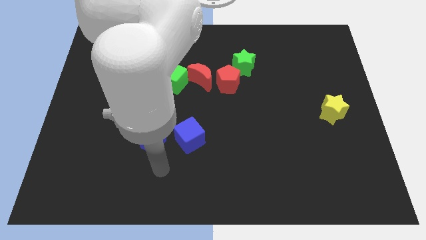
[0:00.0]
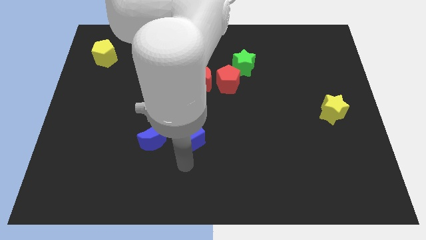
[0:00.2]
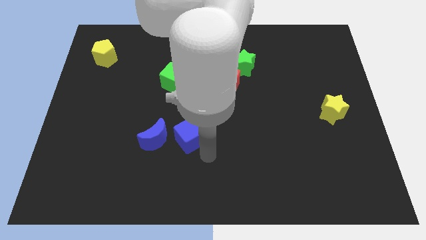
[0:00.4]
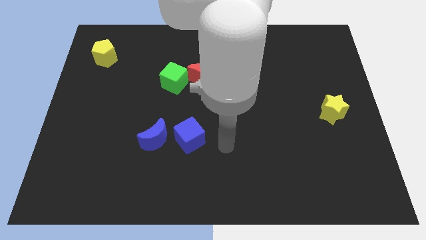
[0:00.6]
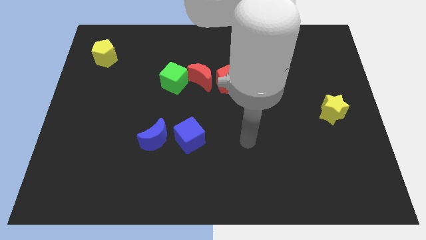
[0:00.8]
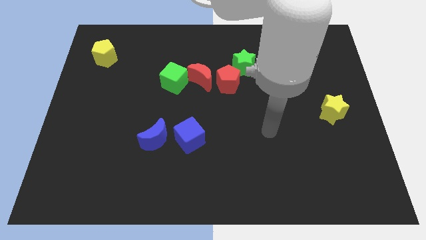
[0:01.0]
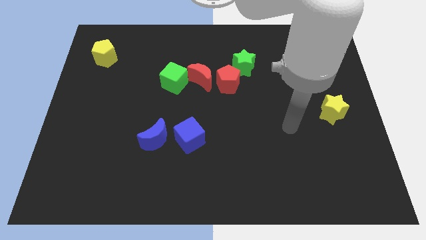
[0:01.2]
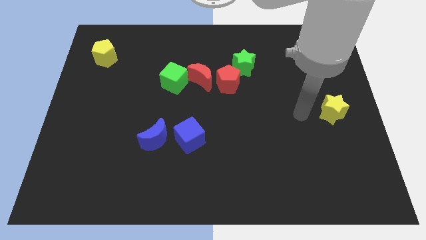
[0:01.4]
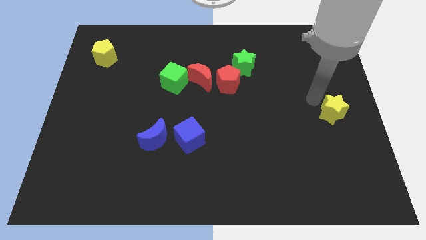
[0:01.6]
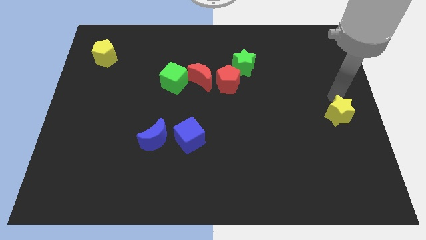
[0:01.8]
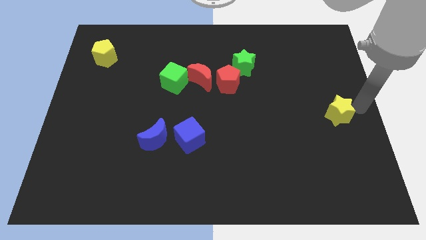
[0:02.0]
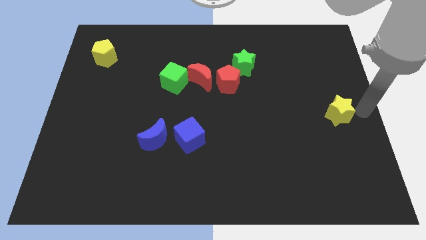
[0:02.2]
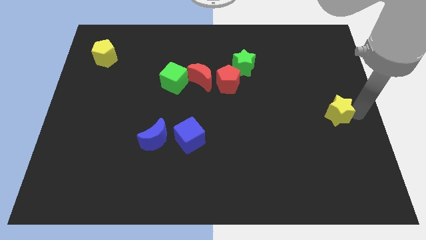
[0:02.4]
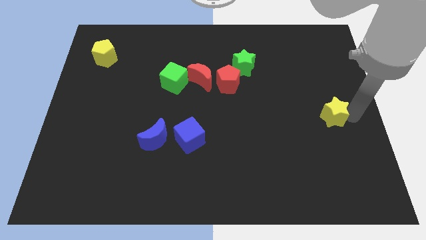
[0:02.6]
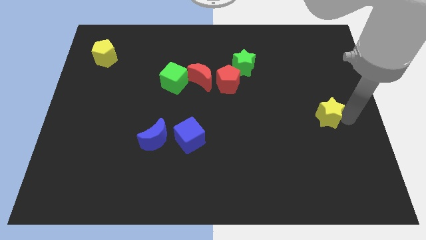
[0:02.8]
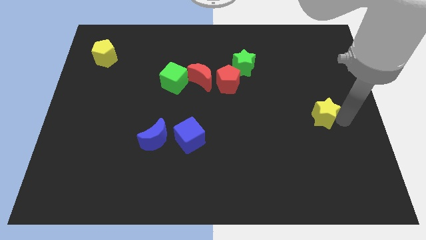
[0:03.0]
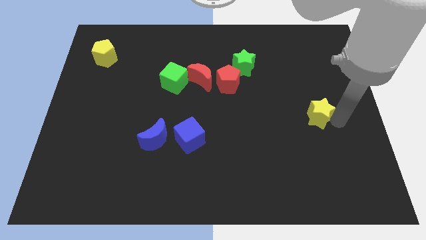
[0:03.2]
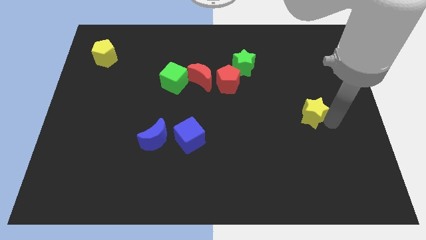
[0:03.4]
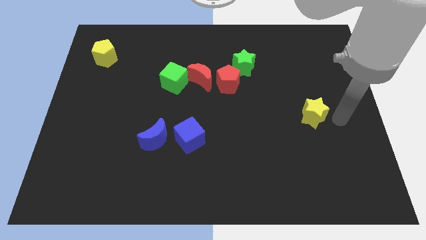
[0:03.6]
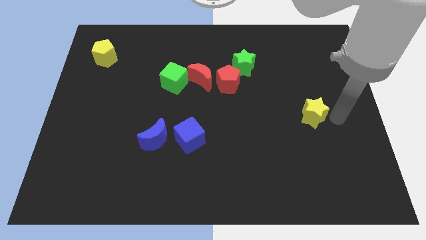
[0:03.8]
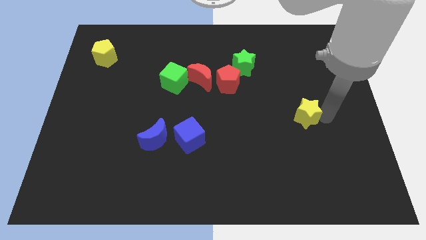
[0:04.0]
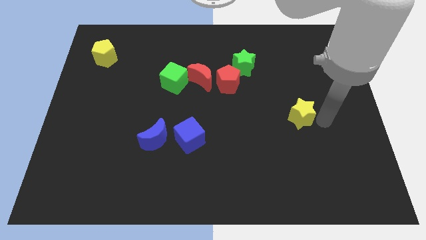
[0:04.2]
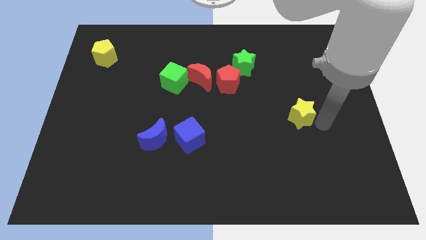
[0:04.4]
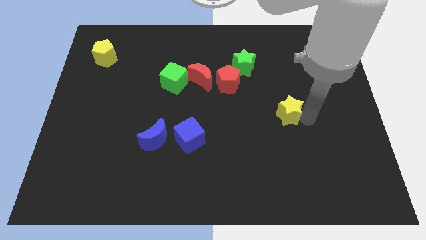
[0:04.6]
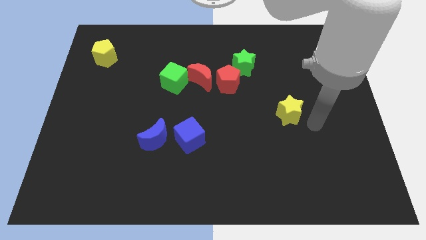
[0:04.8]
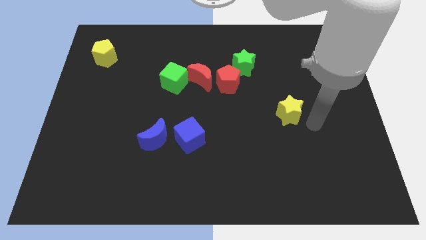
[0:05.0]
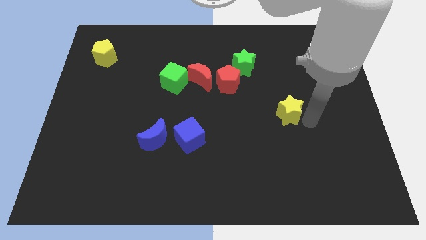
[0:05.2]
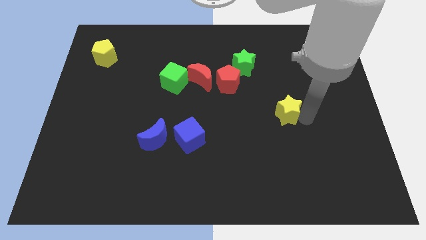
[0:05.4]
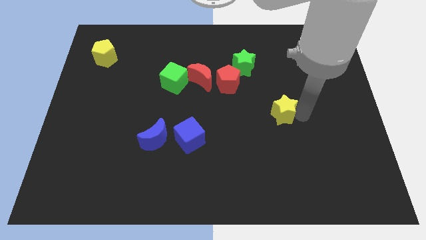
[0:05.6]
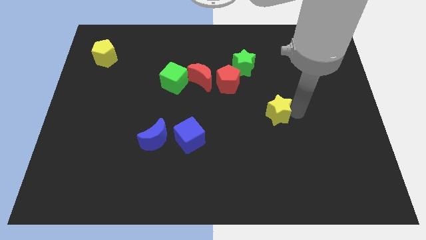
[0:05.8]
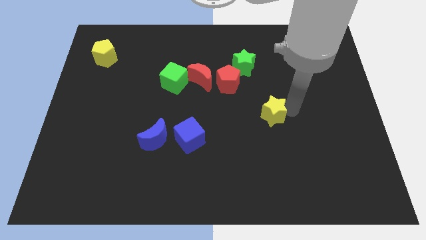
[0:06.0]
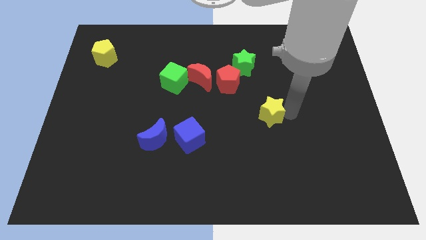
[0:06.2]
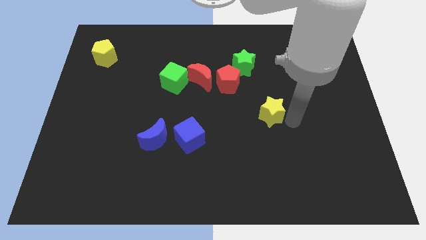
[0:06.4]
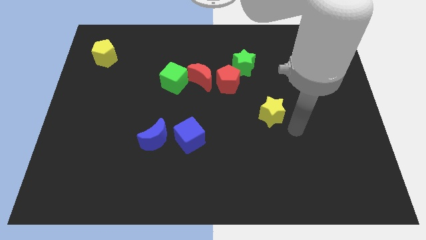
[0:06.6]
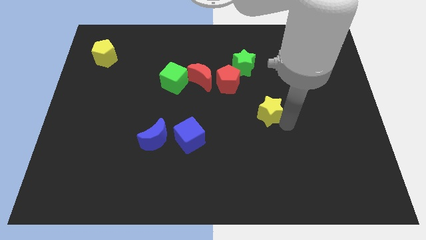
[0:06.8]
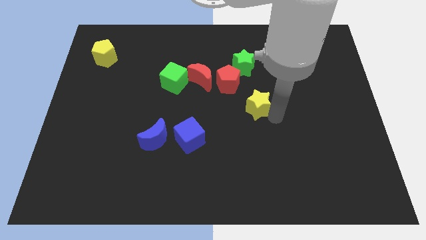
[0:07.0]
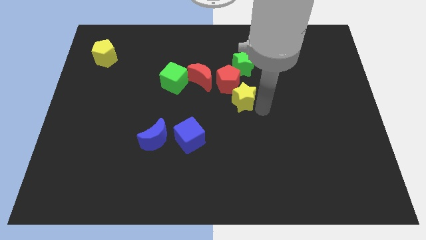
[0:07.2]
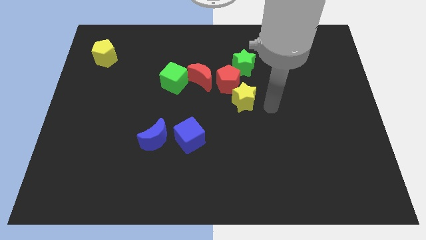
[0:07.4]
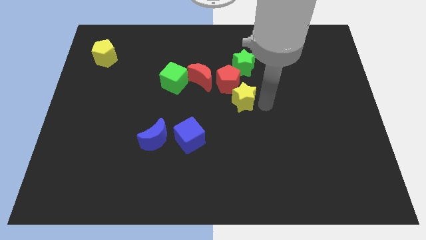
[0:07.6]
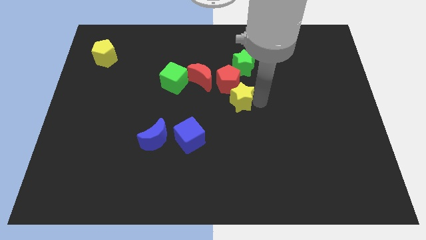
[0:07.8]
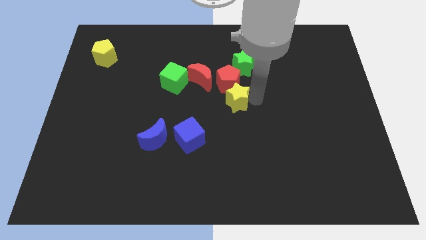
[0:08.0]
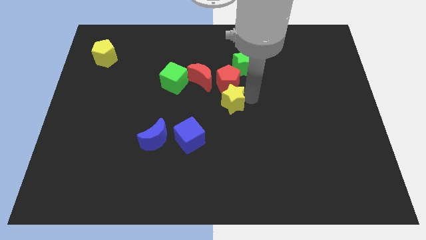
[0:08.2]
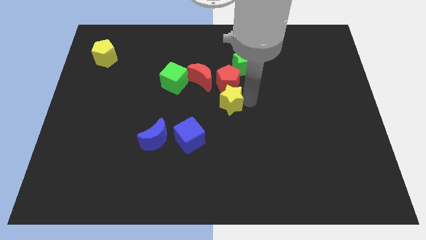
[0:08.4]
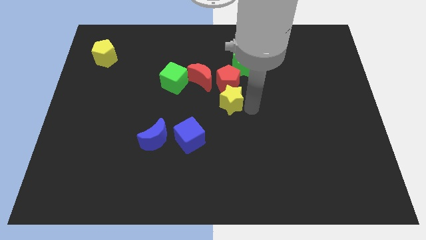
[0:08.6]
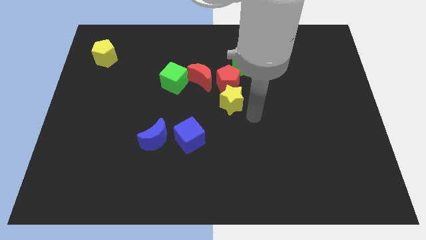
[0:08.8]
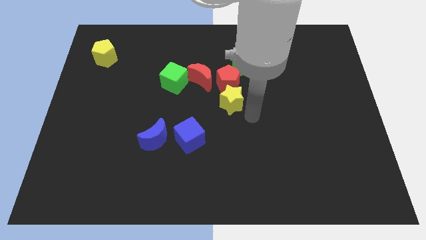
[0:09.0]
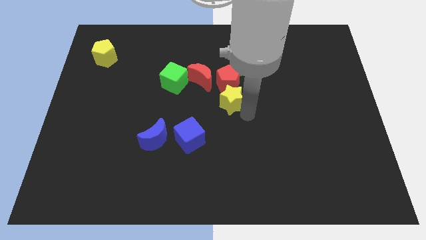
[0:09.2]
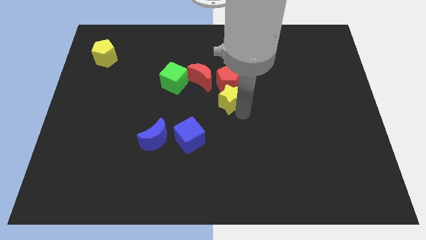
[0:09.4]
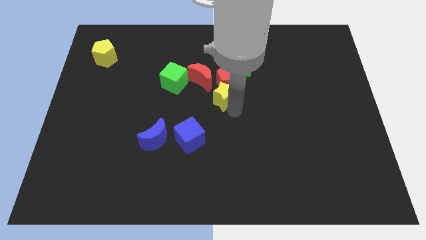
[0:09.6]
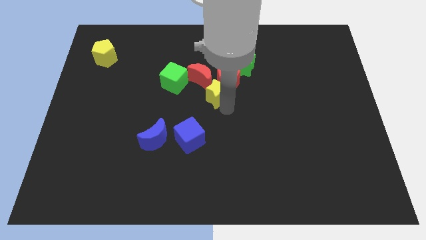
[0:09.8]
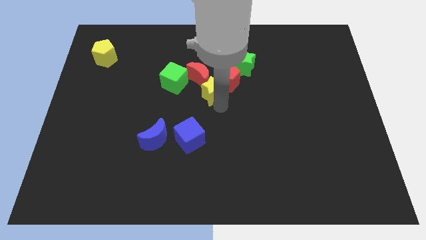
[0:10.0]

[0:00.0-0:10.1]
put the yellow star close to the red moon

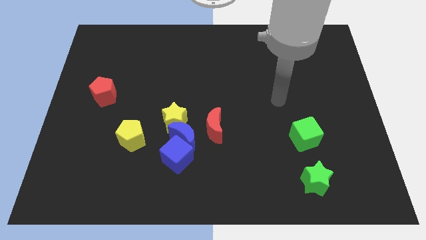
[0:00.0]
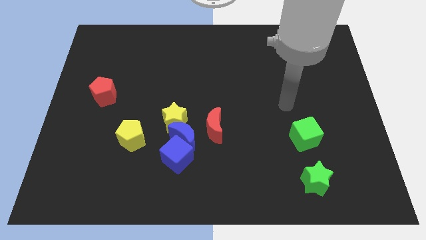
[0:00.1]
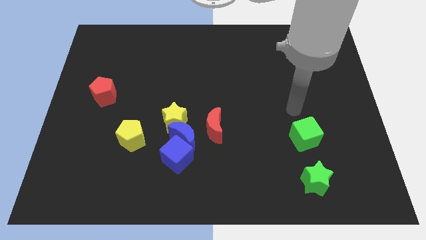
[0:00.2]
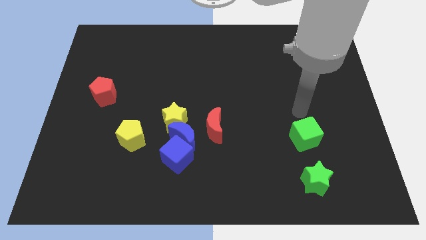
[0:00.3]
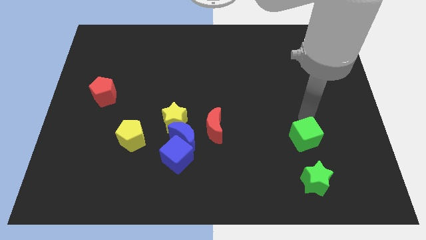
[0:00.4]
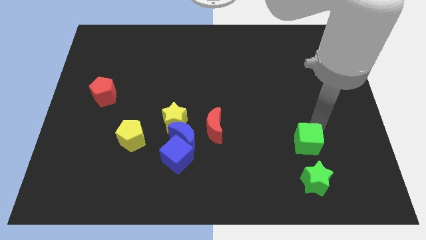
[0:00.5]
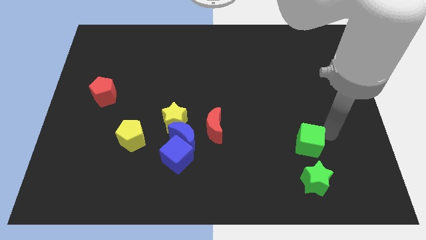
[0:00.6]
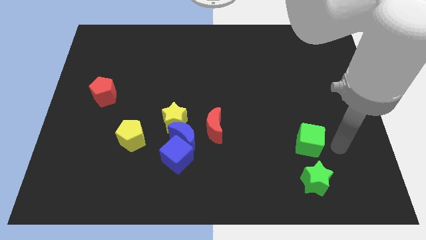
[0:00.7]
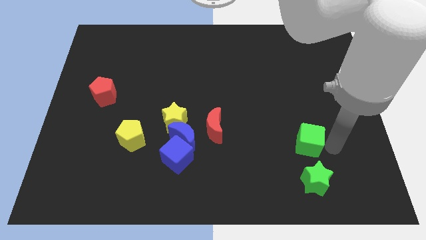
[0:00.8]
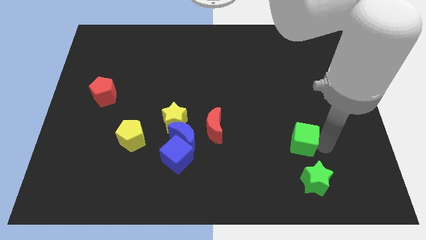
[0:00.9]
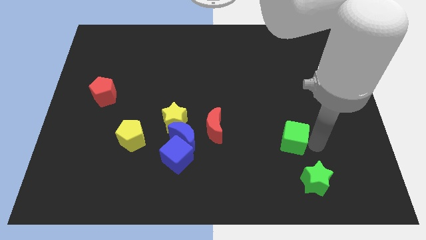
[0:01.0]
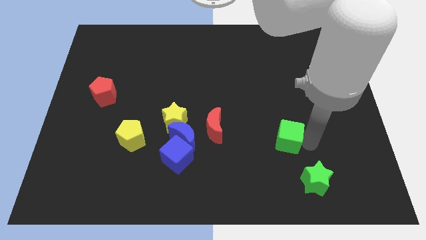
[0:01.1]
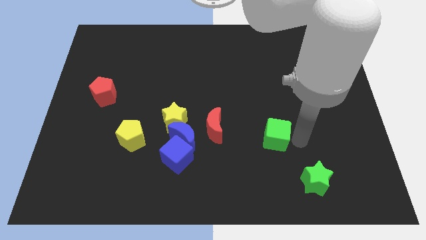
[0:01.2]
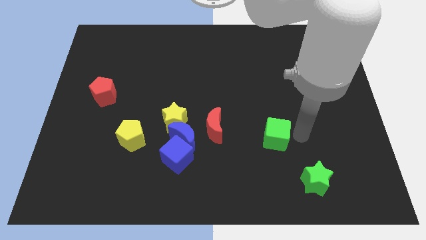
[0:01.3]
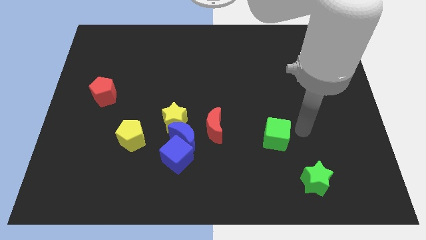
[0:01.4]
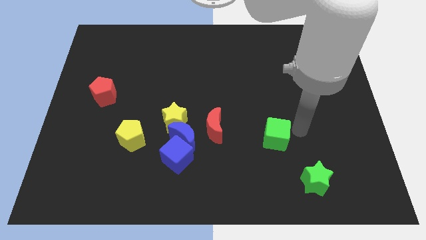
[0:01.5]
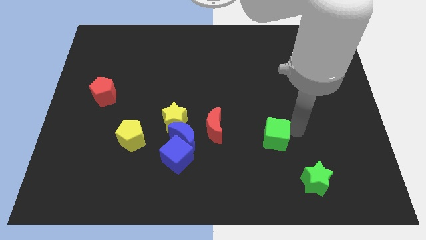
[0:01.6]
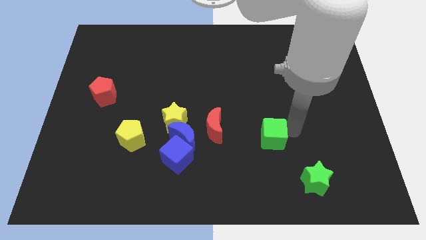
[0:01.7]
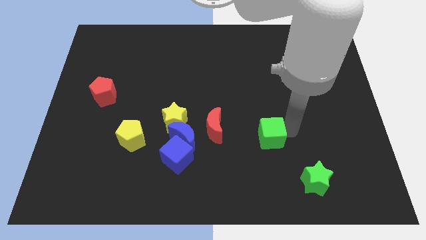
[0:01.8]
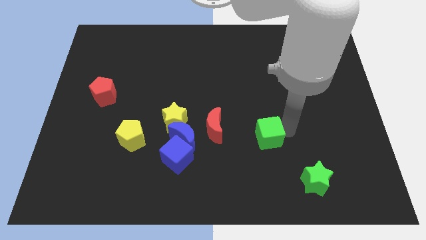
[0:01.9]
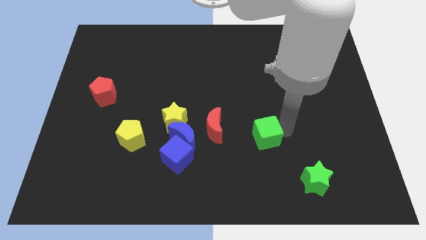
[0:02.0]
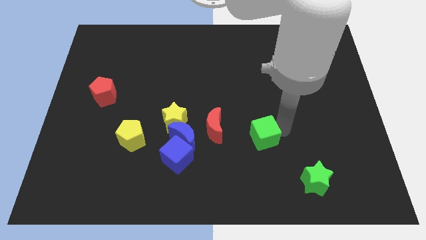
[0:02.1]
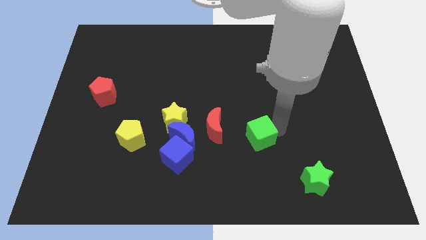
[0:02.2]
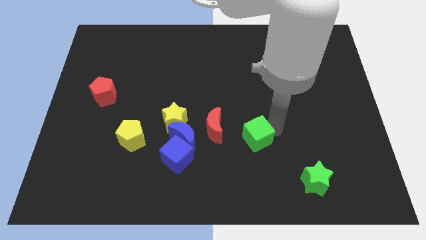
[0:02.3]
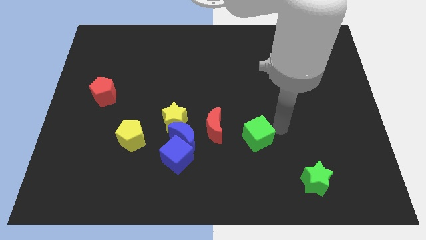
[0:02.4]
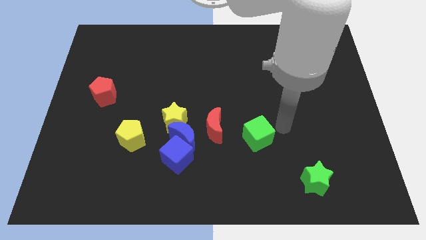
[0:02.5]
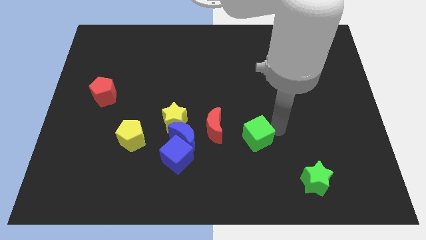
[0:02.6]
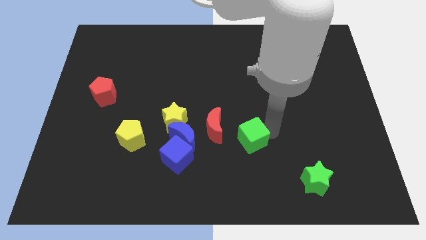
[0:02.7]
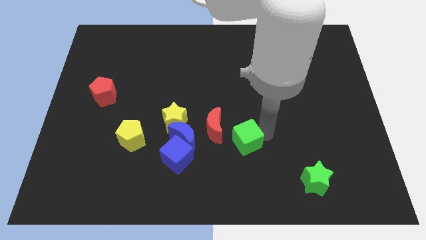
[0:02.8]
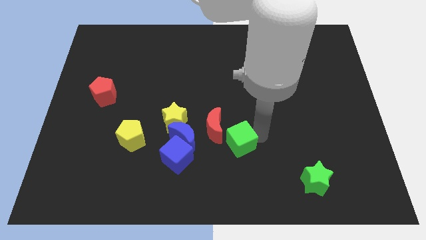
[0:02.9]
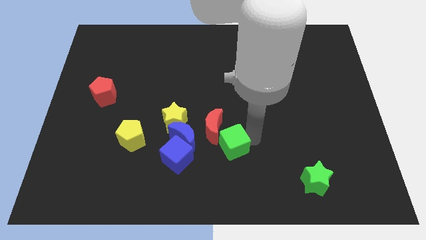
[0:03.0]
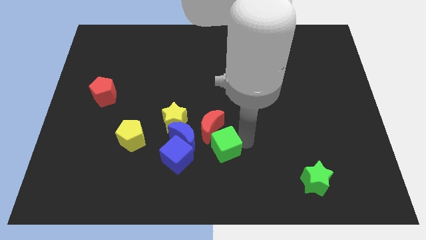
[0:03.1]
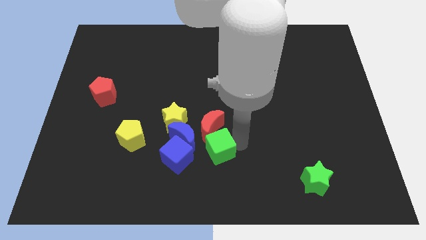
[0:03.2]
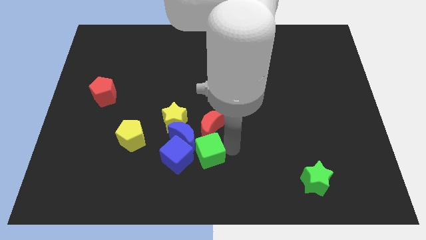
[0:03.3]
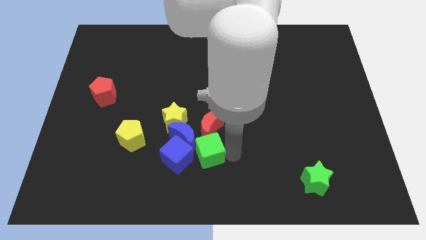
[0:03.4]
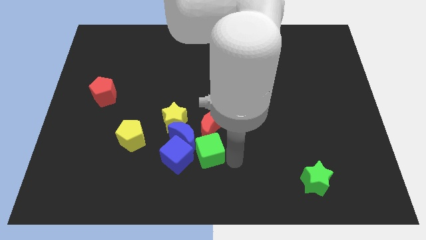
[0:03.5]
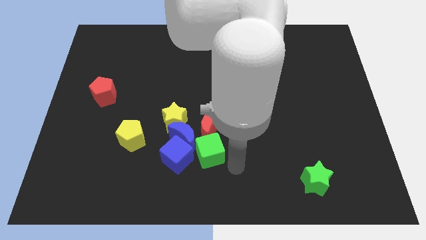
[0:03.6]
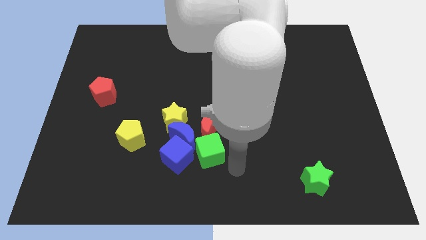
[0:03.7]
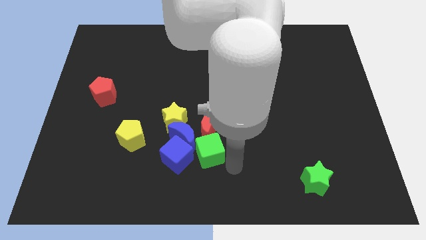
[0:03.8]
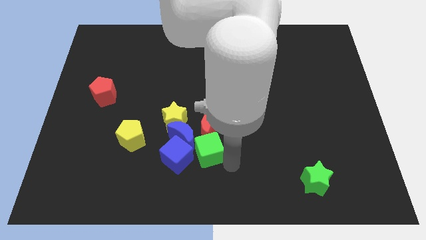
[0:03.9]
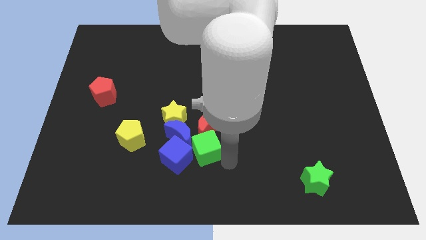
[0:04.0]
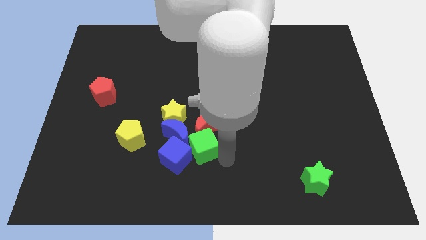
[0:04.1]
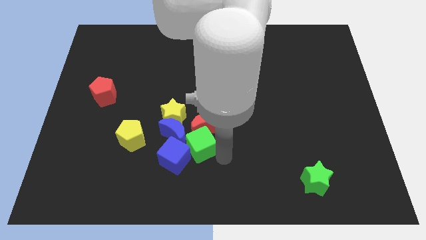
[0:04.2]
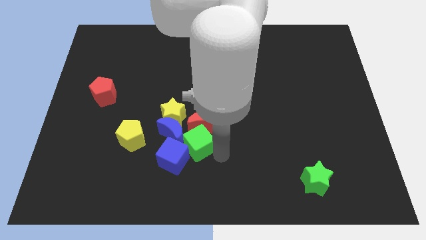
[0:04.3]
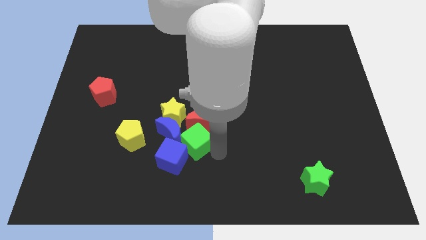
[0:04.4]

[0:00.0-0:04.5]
put the green cube towards the blue moon
